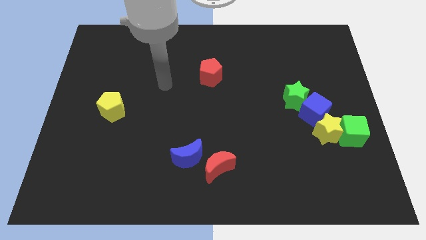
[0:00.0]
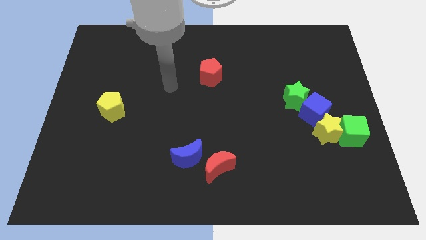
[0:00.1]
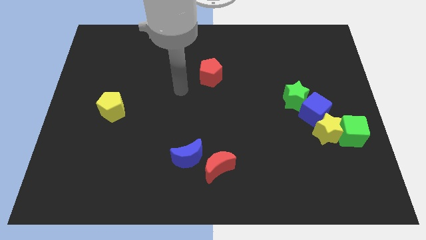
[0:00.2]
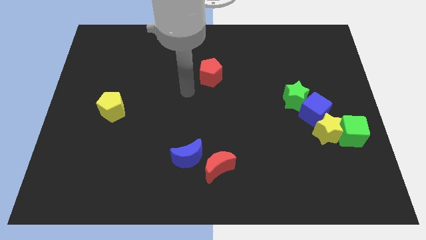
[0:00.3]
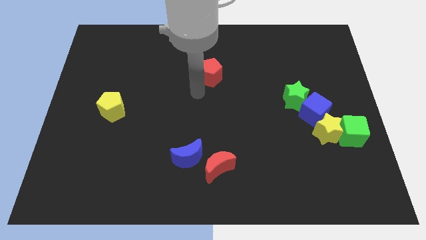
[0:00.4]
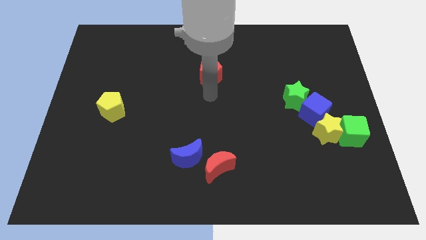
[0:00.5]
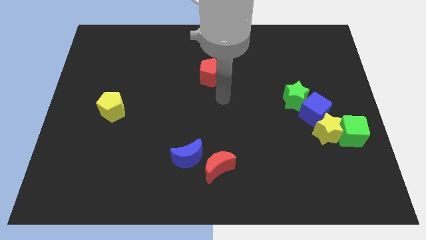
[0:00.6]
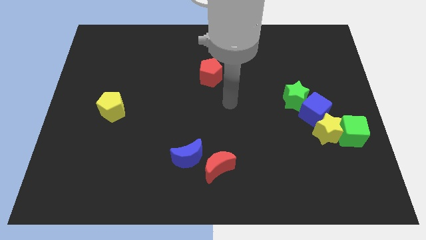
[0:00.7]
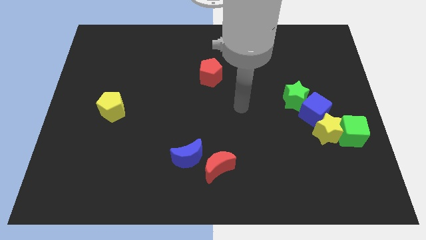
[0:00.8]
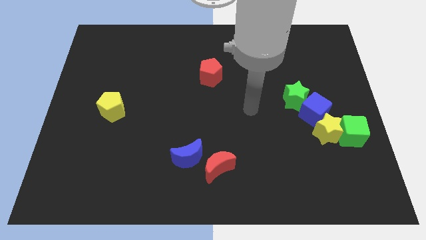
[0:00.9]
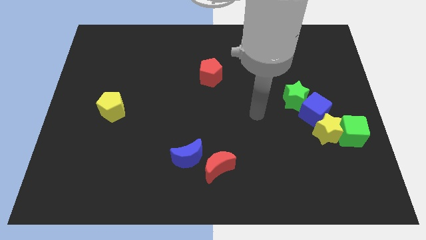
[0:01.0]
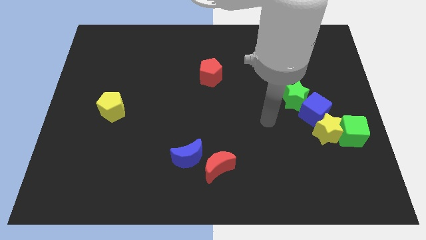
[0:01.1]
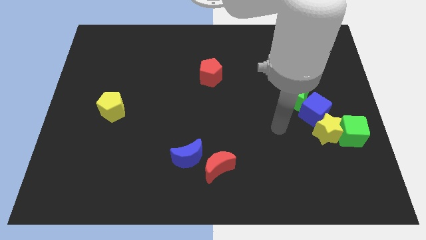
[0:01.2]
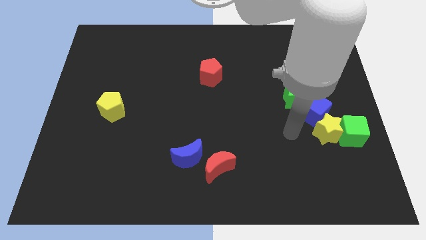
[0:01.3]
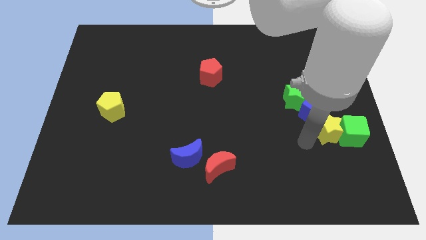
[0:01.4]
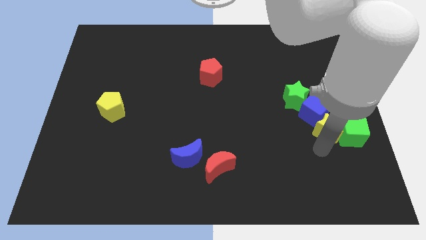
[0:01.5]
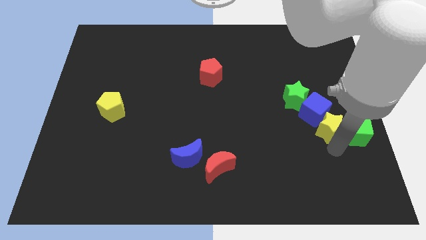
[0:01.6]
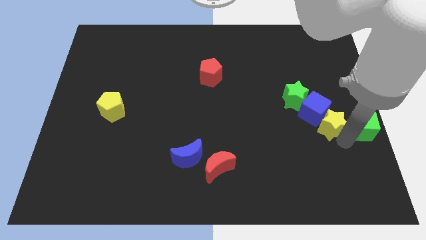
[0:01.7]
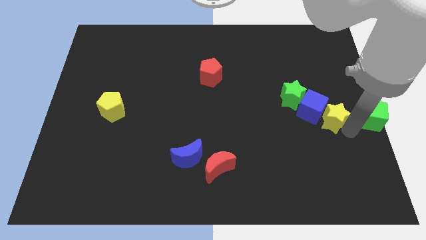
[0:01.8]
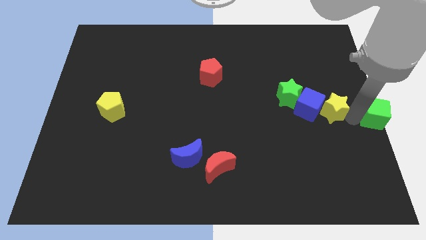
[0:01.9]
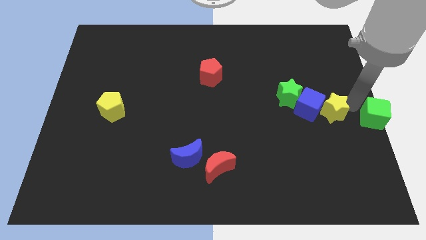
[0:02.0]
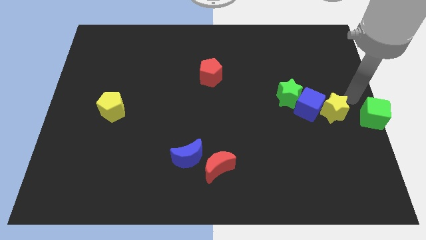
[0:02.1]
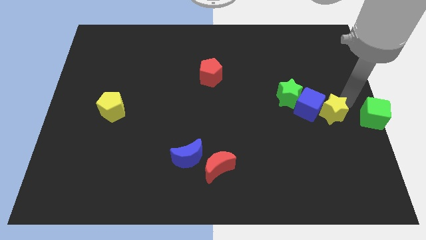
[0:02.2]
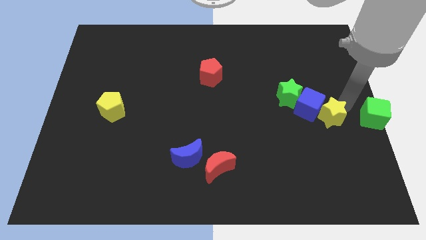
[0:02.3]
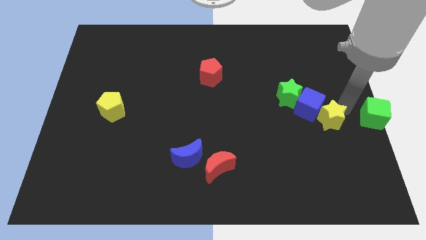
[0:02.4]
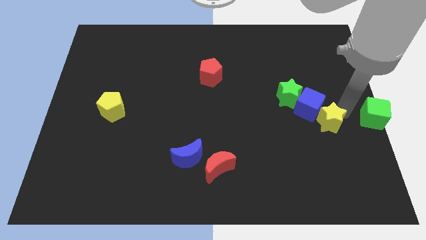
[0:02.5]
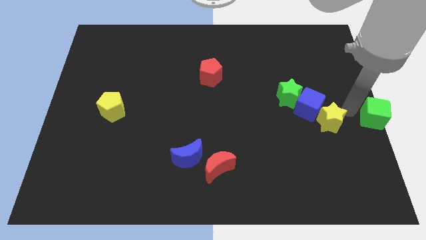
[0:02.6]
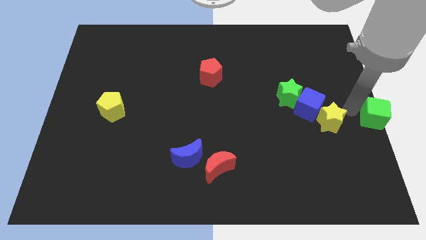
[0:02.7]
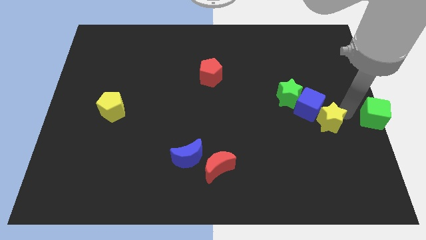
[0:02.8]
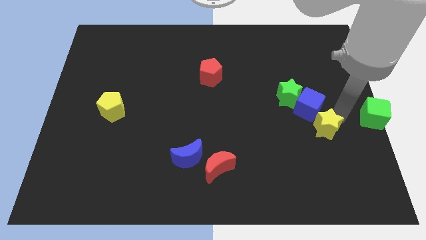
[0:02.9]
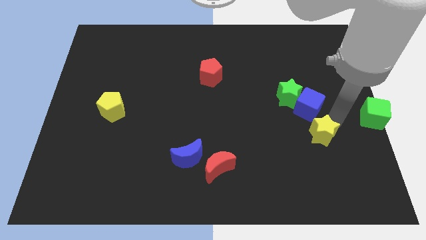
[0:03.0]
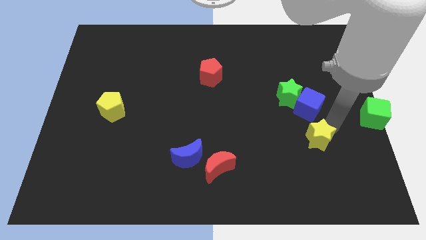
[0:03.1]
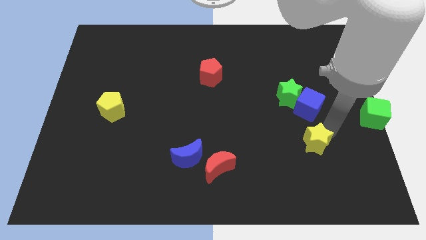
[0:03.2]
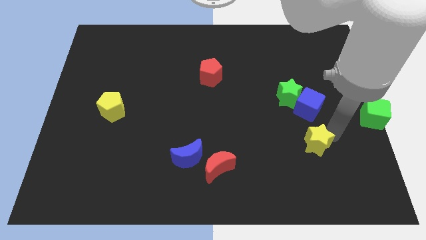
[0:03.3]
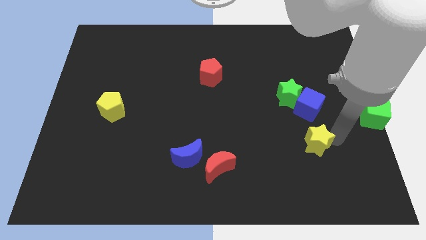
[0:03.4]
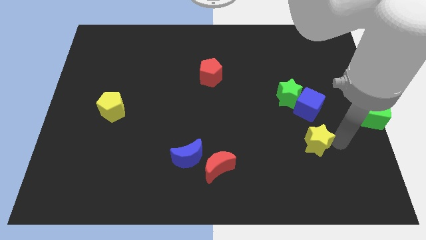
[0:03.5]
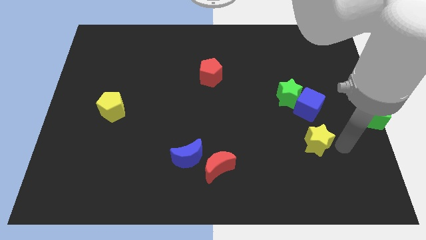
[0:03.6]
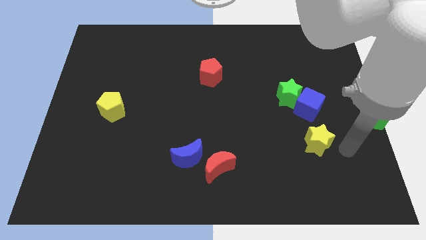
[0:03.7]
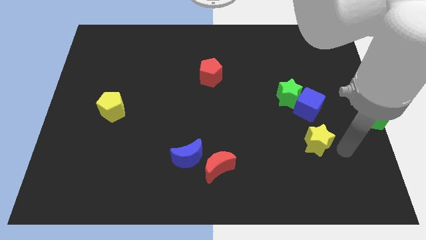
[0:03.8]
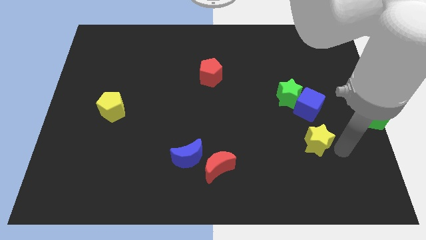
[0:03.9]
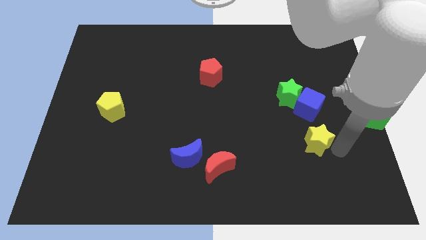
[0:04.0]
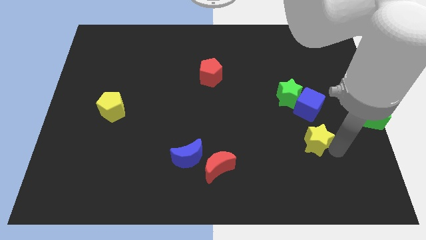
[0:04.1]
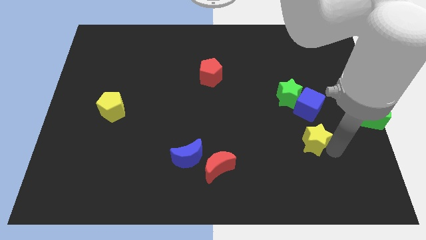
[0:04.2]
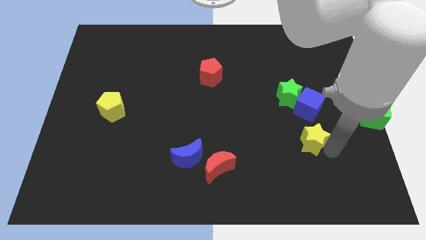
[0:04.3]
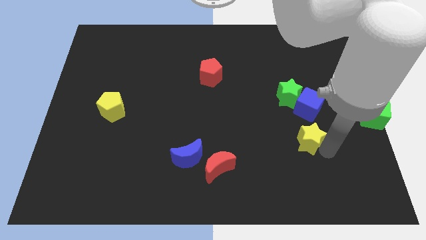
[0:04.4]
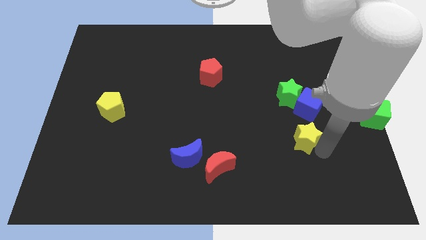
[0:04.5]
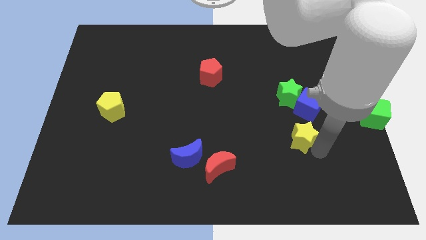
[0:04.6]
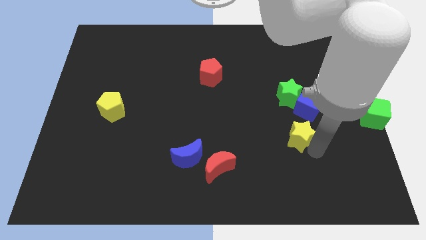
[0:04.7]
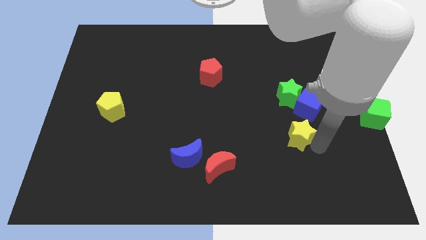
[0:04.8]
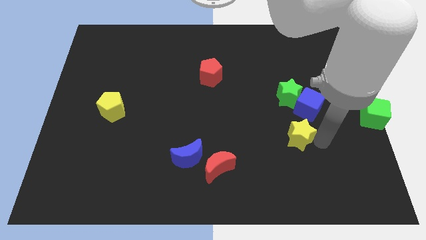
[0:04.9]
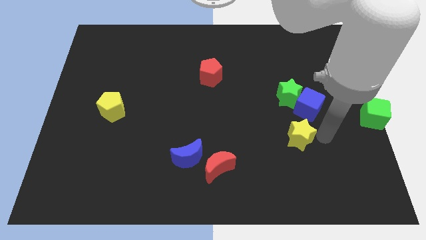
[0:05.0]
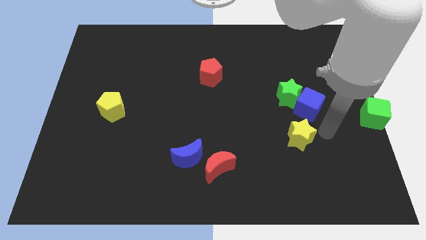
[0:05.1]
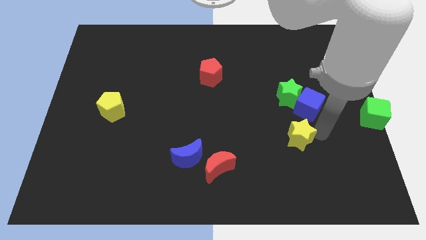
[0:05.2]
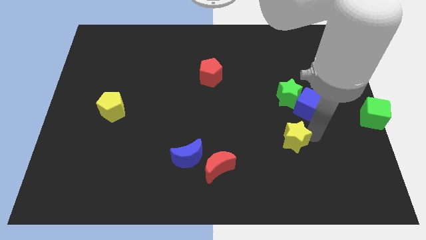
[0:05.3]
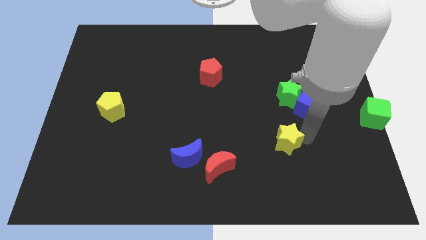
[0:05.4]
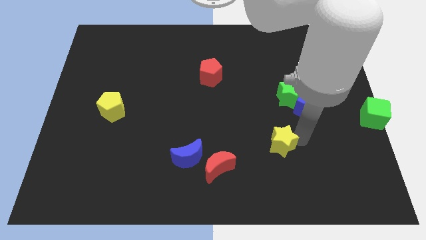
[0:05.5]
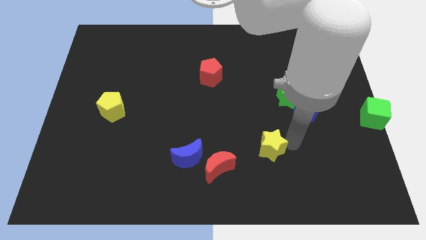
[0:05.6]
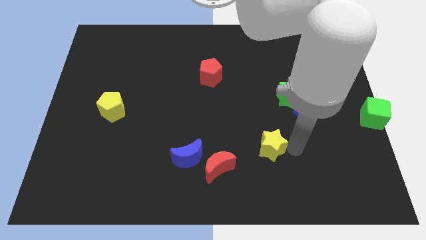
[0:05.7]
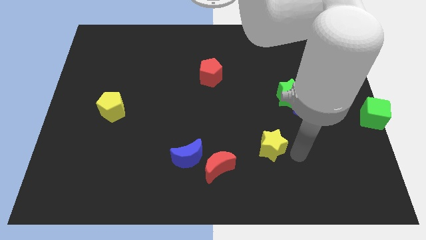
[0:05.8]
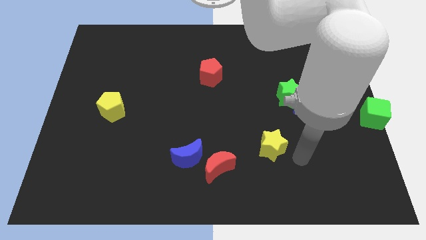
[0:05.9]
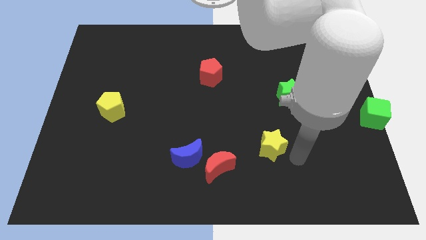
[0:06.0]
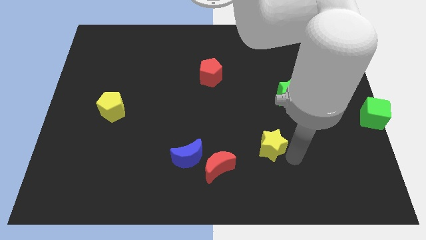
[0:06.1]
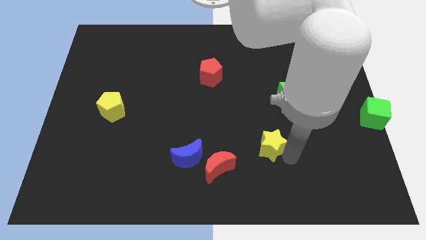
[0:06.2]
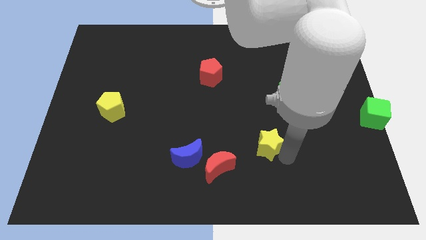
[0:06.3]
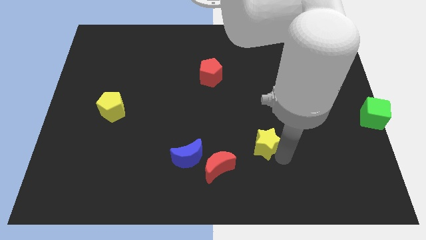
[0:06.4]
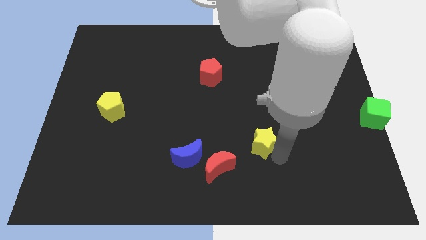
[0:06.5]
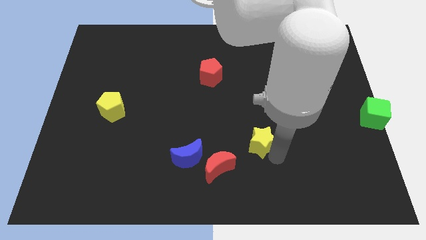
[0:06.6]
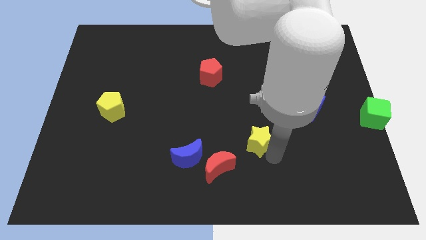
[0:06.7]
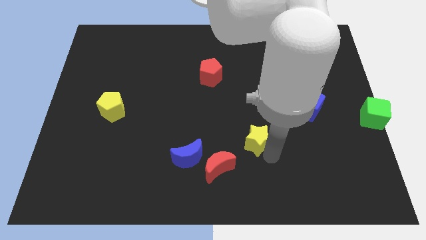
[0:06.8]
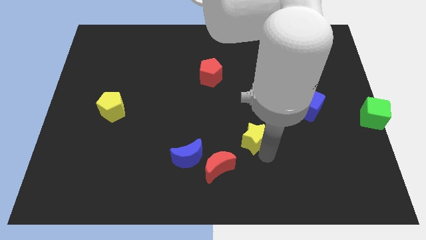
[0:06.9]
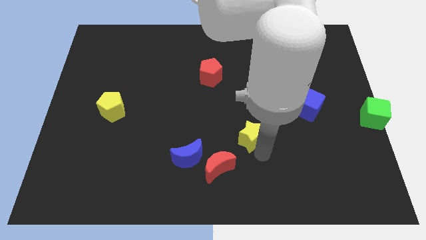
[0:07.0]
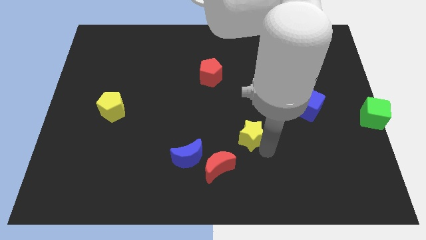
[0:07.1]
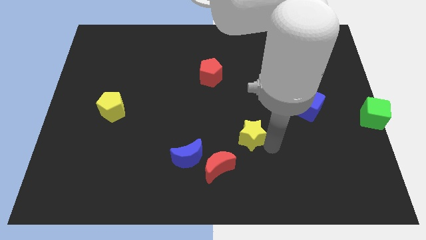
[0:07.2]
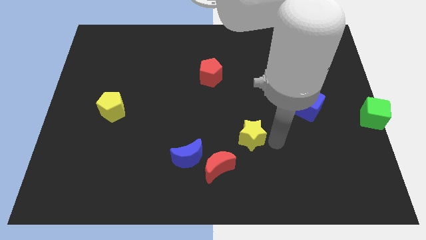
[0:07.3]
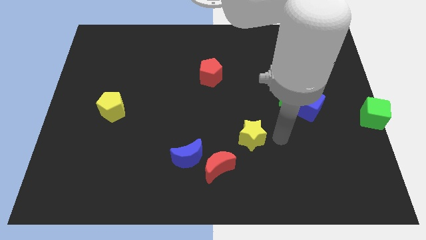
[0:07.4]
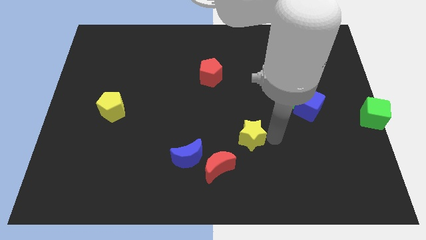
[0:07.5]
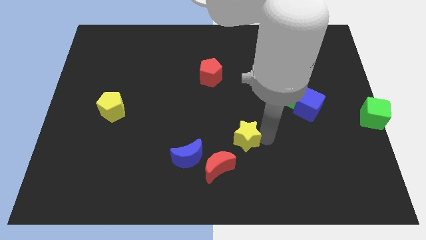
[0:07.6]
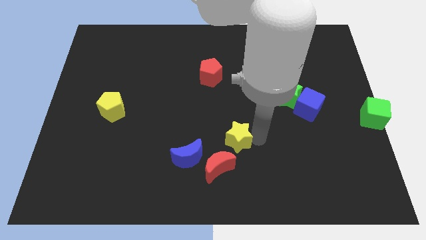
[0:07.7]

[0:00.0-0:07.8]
move the yellow star to the left

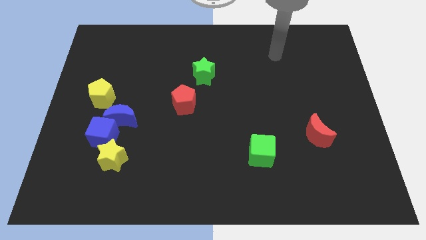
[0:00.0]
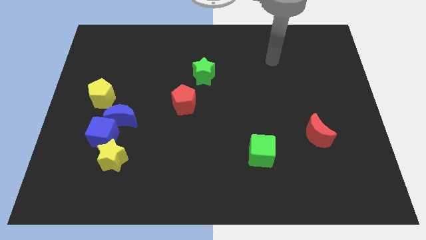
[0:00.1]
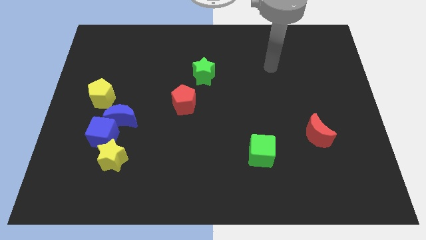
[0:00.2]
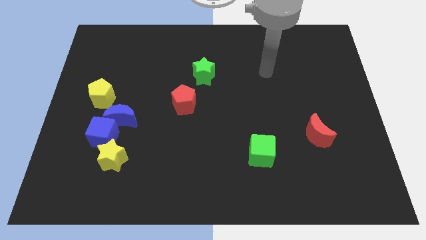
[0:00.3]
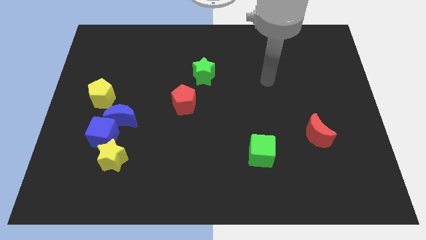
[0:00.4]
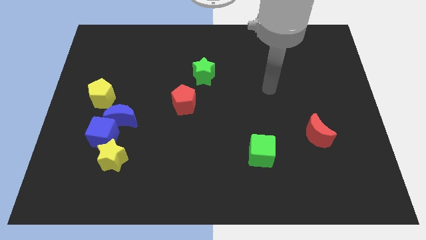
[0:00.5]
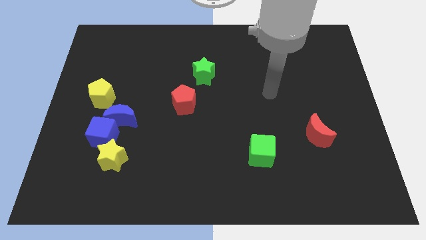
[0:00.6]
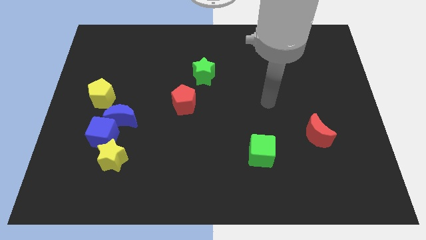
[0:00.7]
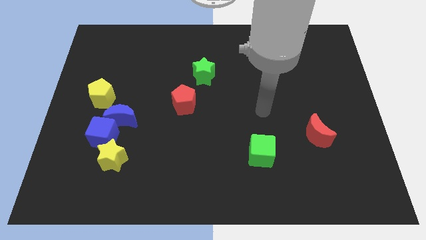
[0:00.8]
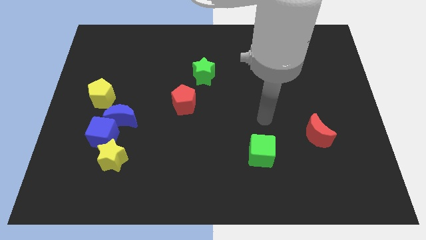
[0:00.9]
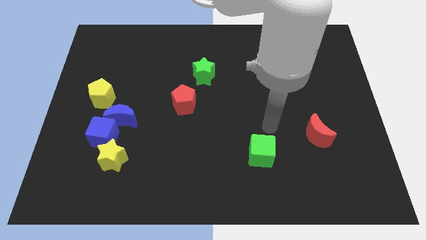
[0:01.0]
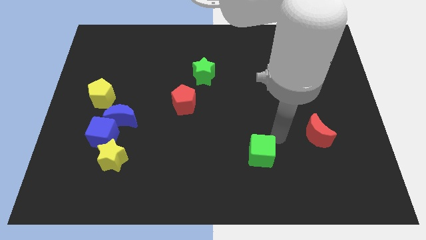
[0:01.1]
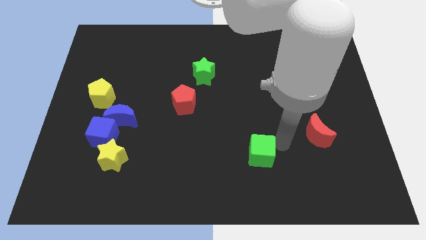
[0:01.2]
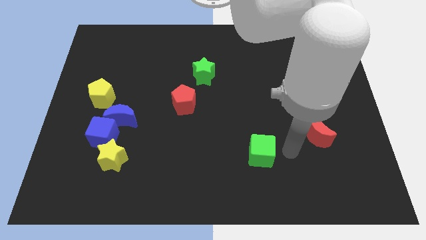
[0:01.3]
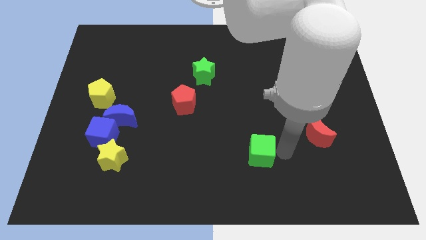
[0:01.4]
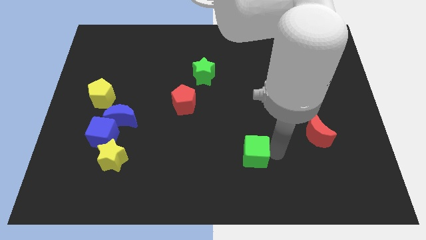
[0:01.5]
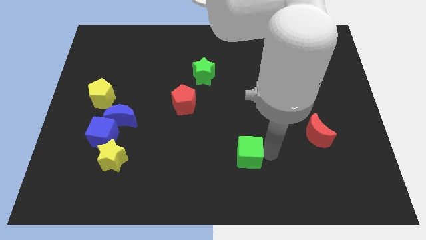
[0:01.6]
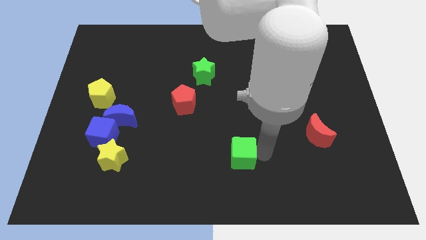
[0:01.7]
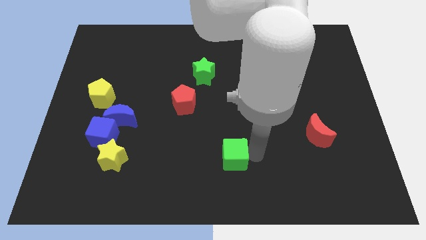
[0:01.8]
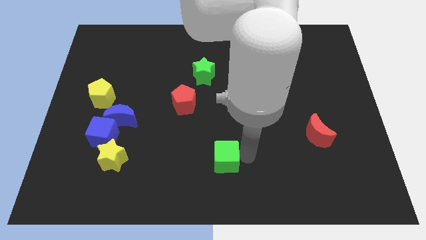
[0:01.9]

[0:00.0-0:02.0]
move the green cube slightly left
